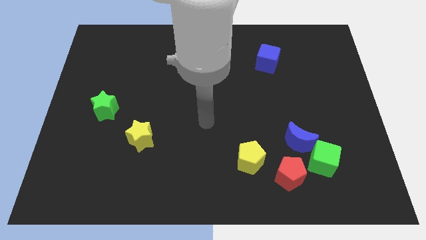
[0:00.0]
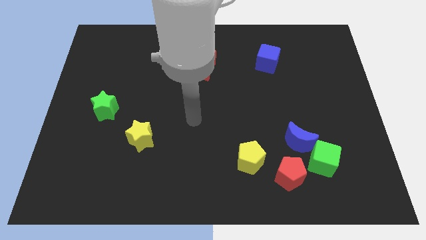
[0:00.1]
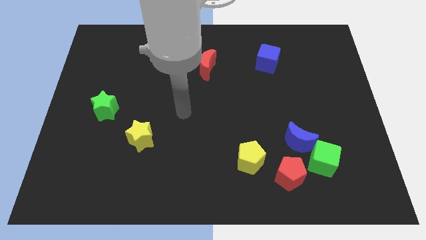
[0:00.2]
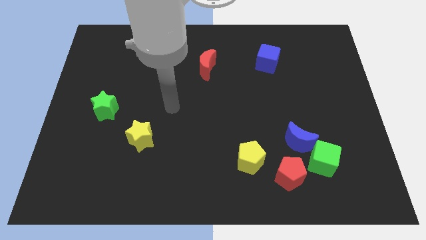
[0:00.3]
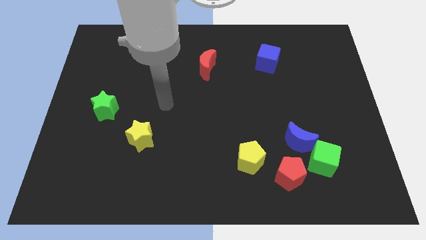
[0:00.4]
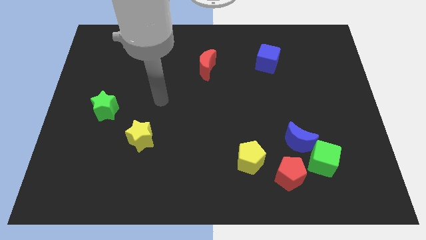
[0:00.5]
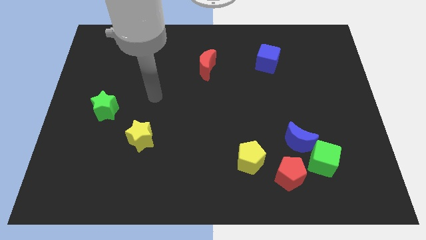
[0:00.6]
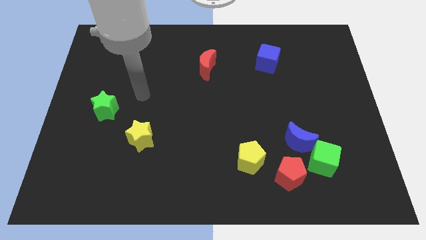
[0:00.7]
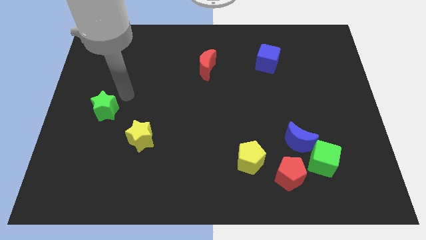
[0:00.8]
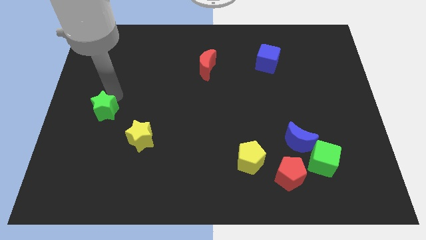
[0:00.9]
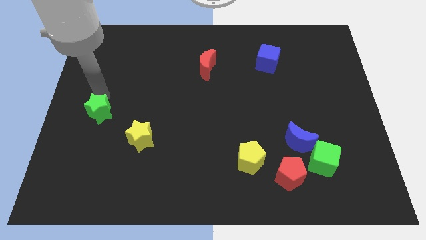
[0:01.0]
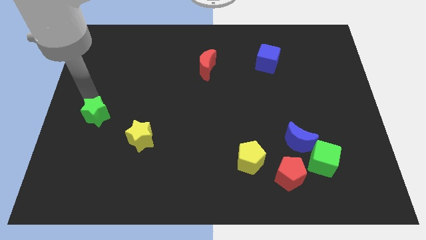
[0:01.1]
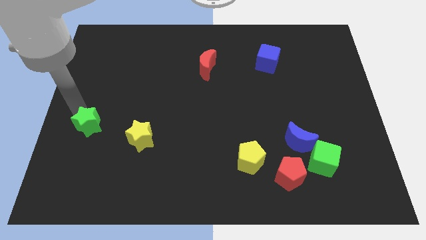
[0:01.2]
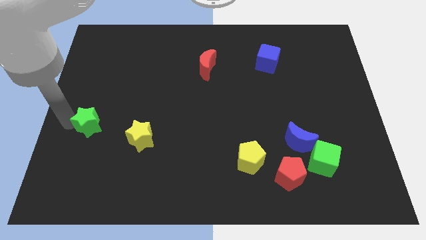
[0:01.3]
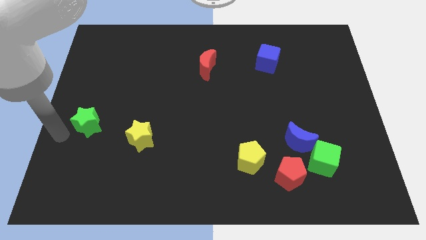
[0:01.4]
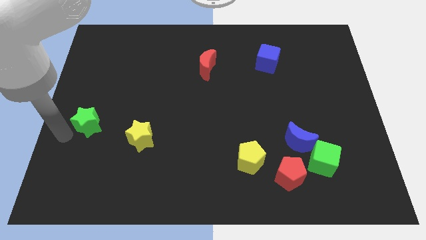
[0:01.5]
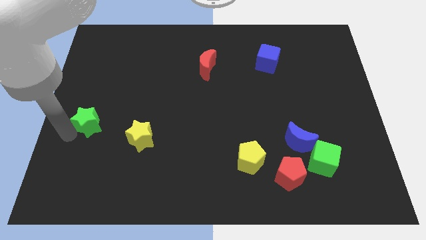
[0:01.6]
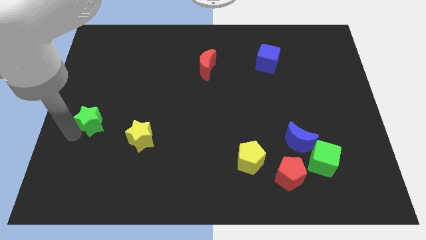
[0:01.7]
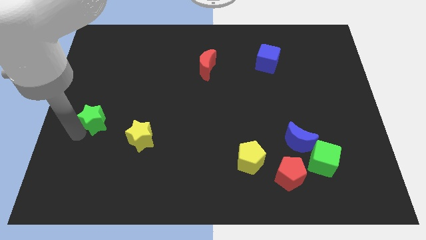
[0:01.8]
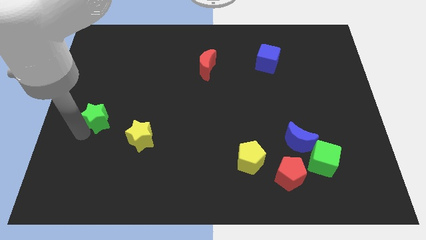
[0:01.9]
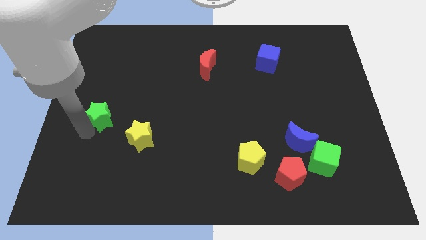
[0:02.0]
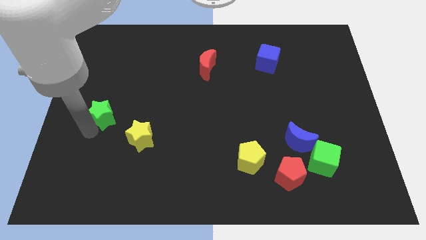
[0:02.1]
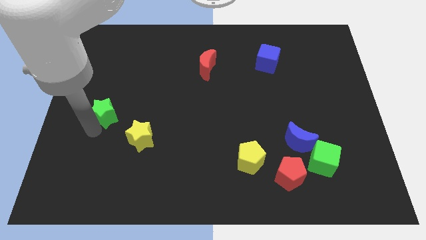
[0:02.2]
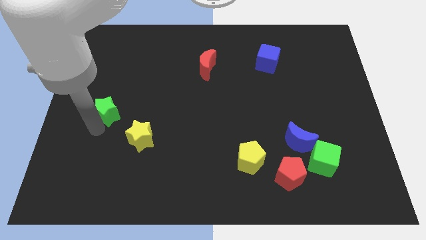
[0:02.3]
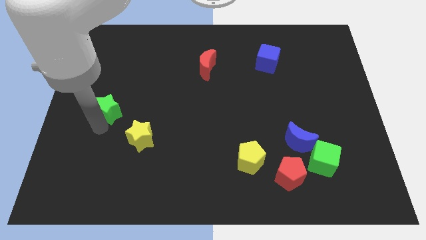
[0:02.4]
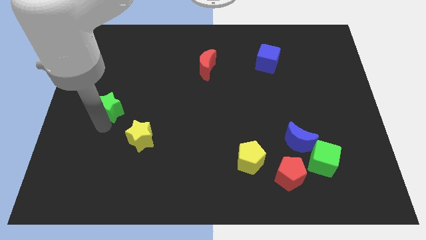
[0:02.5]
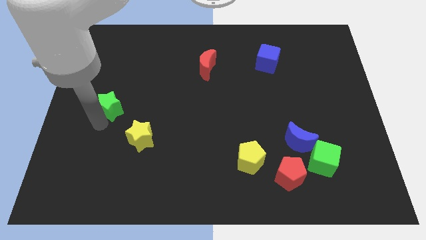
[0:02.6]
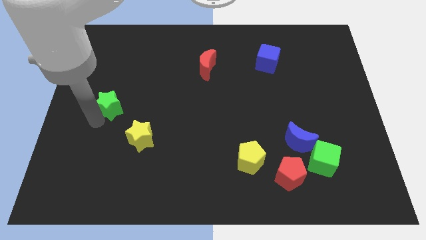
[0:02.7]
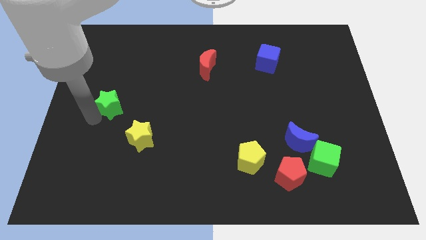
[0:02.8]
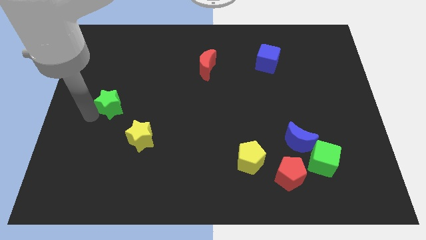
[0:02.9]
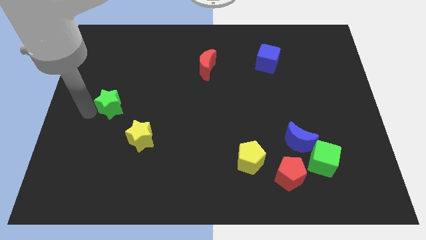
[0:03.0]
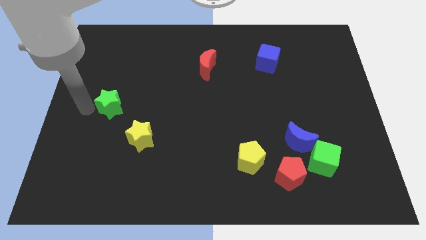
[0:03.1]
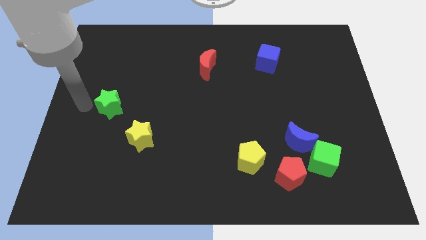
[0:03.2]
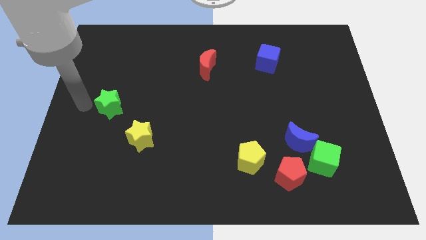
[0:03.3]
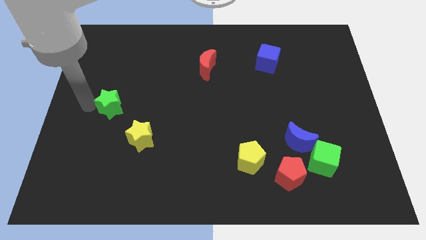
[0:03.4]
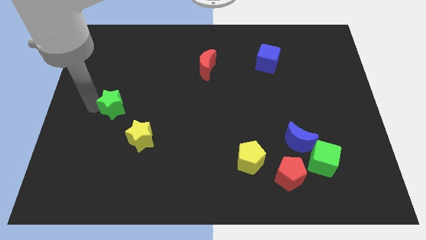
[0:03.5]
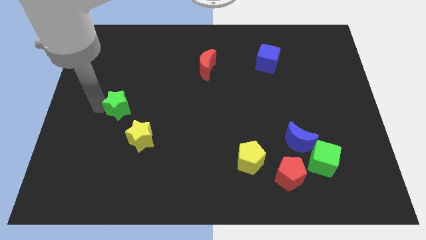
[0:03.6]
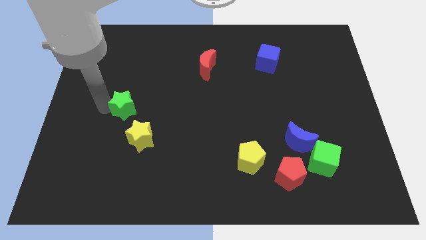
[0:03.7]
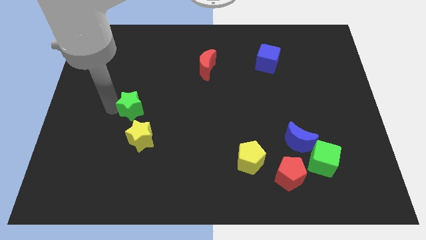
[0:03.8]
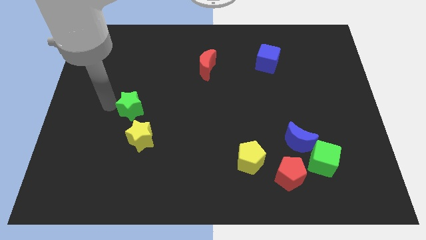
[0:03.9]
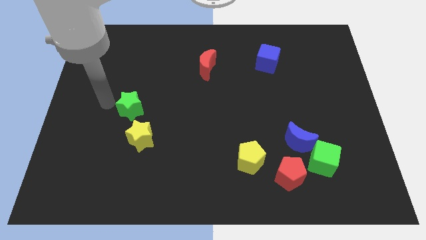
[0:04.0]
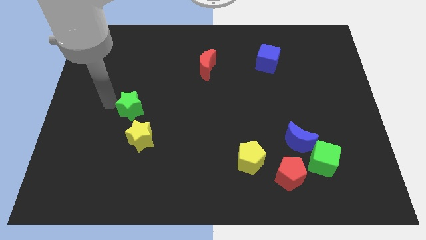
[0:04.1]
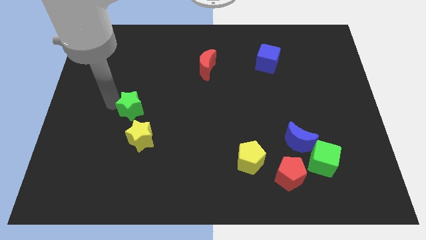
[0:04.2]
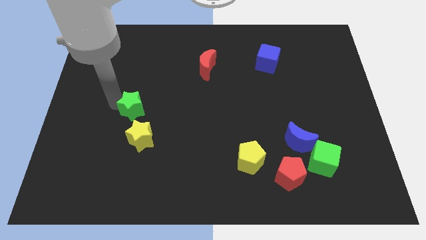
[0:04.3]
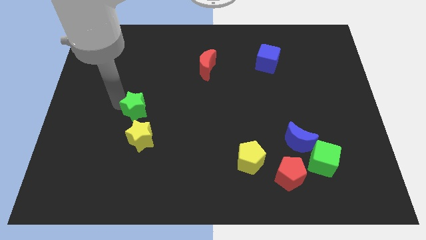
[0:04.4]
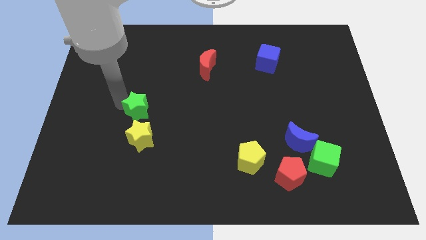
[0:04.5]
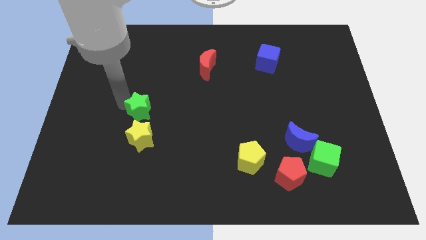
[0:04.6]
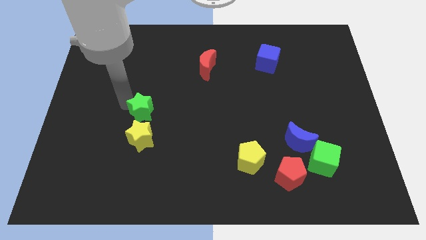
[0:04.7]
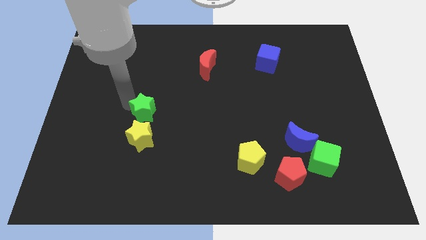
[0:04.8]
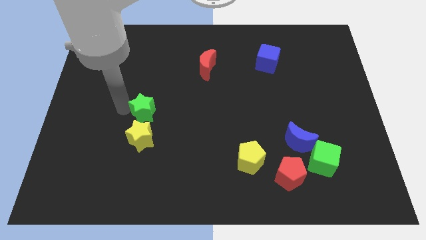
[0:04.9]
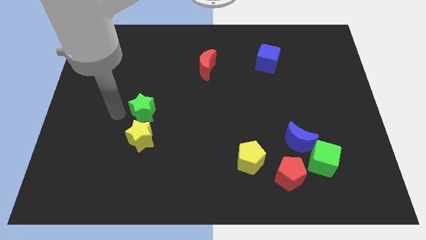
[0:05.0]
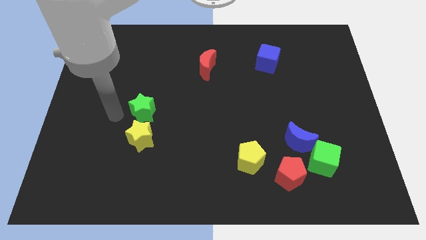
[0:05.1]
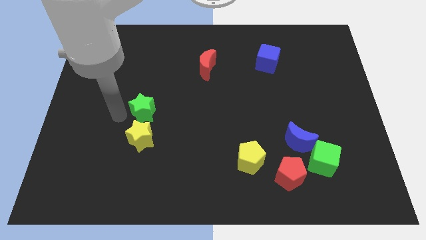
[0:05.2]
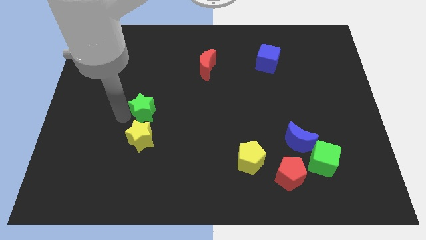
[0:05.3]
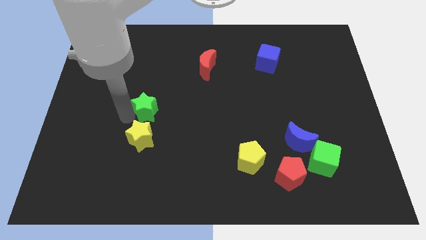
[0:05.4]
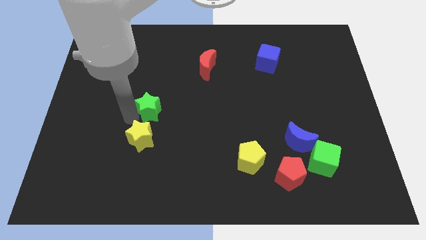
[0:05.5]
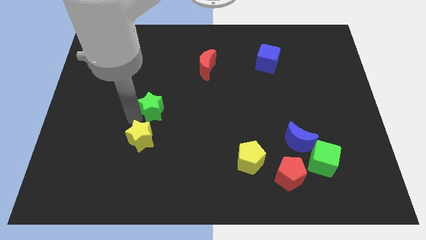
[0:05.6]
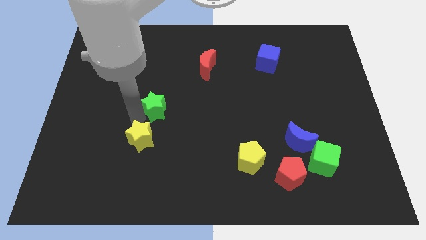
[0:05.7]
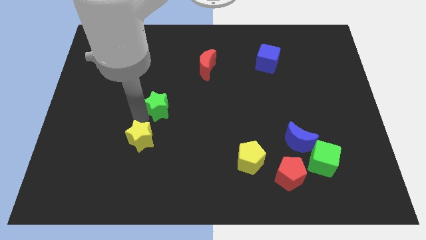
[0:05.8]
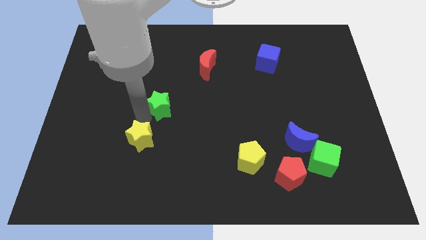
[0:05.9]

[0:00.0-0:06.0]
push the green star to the middle
